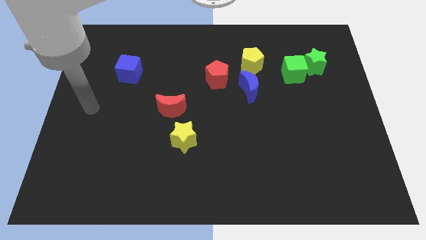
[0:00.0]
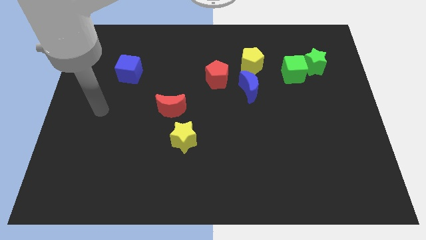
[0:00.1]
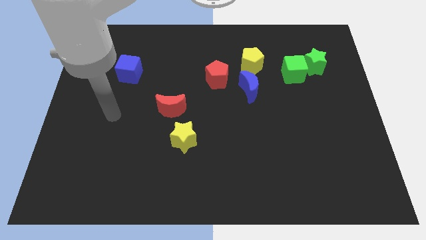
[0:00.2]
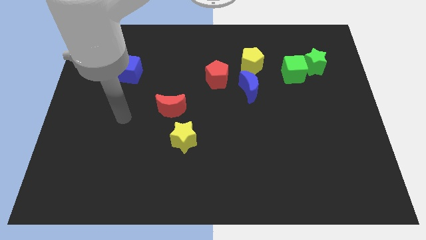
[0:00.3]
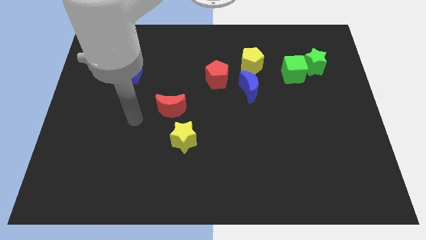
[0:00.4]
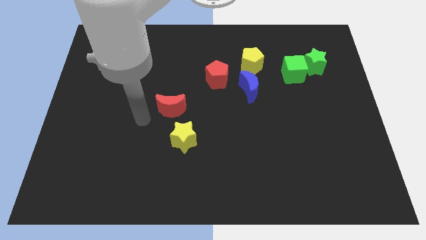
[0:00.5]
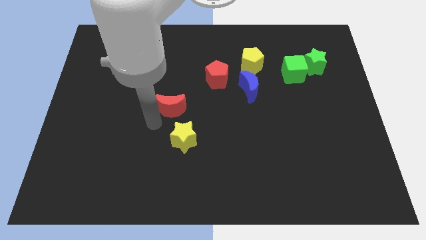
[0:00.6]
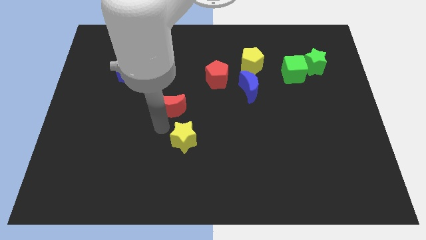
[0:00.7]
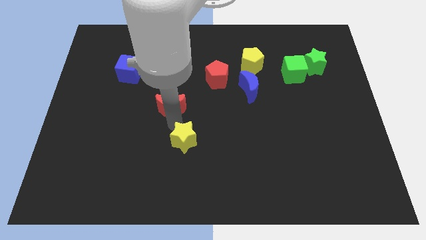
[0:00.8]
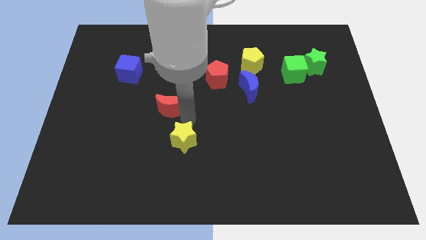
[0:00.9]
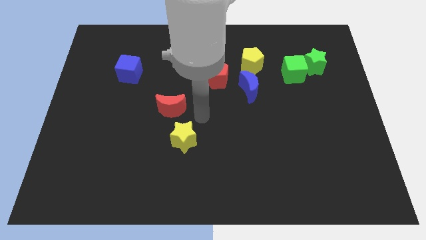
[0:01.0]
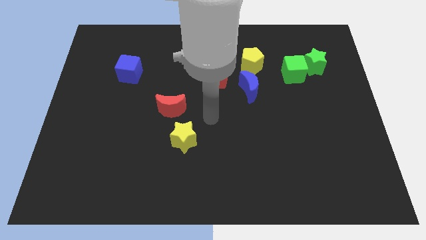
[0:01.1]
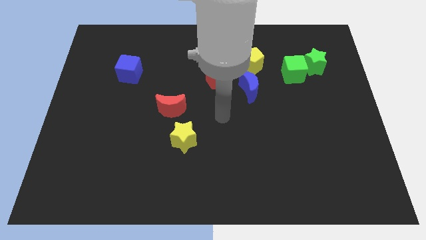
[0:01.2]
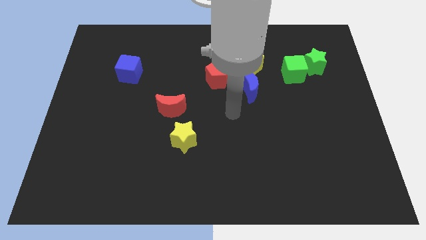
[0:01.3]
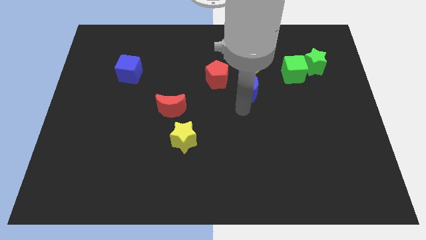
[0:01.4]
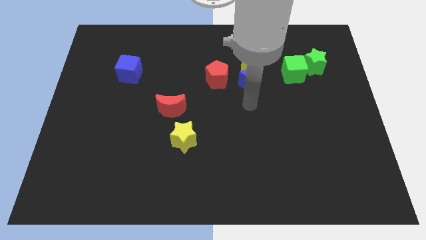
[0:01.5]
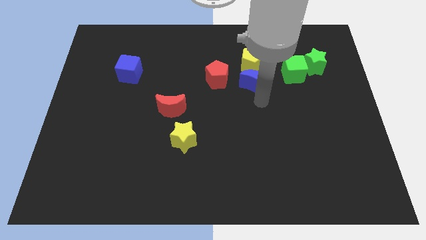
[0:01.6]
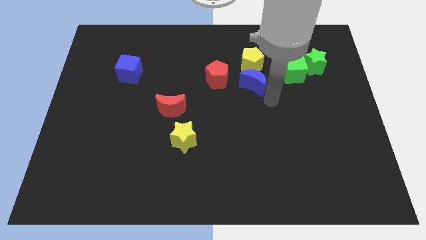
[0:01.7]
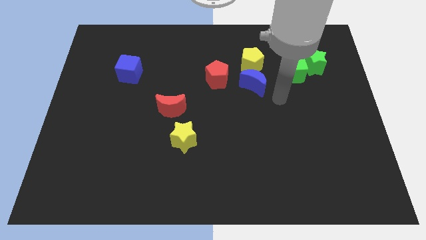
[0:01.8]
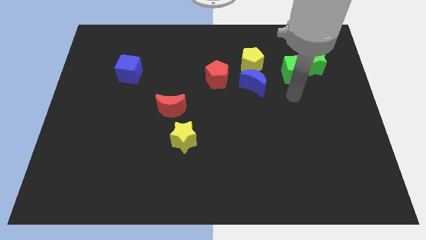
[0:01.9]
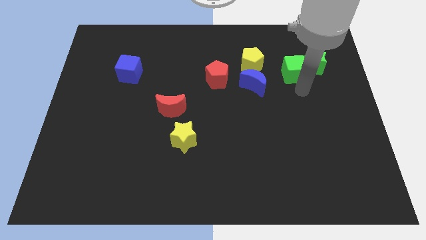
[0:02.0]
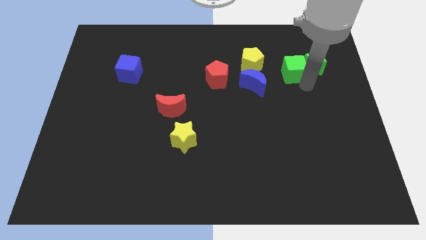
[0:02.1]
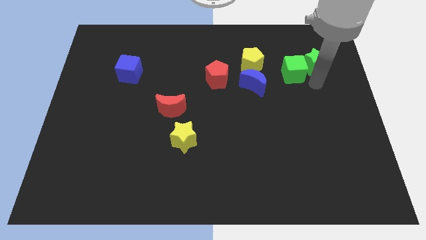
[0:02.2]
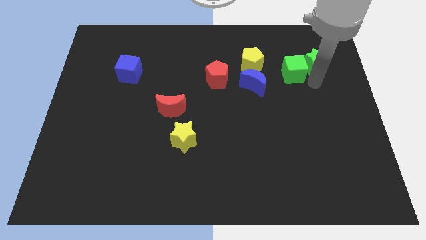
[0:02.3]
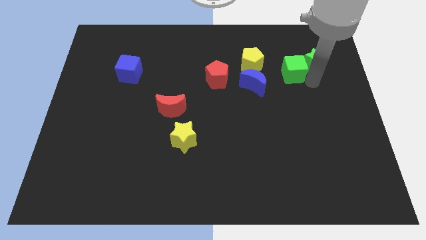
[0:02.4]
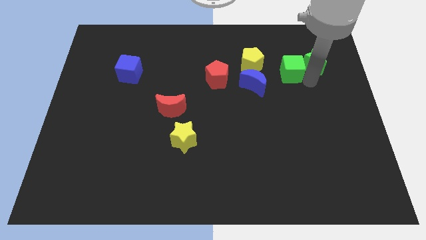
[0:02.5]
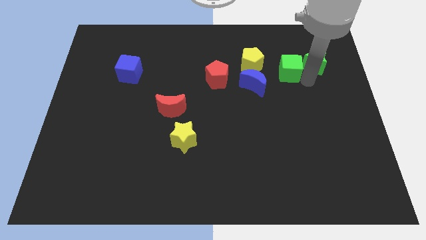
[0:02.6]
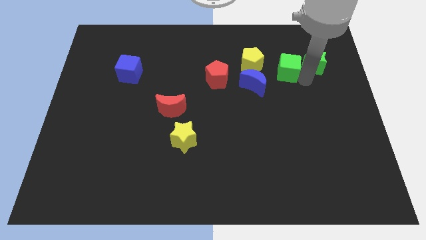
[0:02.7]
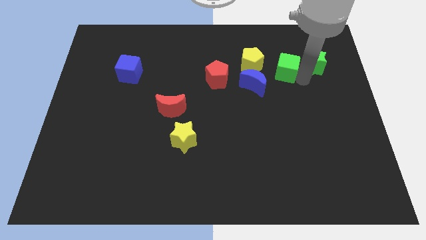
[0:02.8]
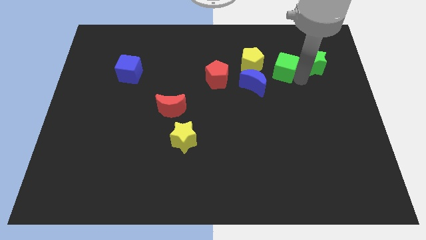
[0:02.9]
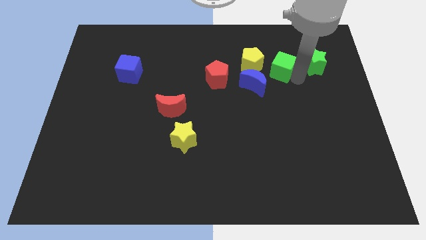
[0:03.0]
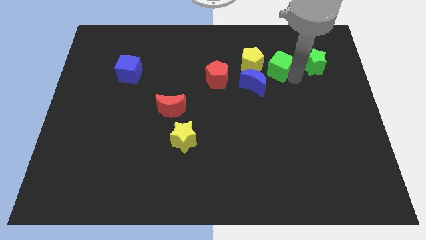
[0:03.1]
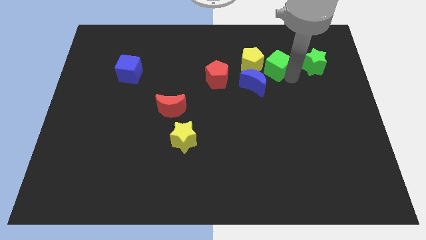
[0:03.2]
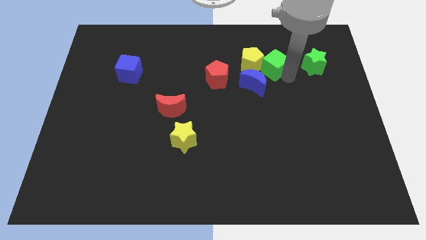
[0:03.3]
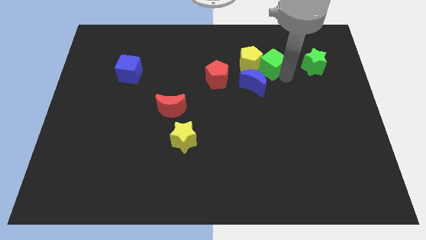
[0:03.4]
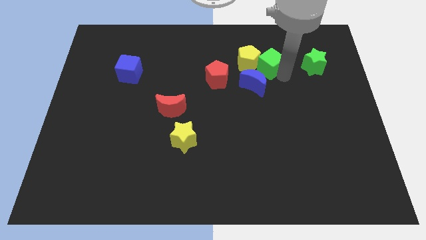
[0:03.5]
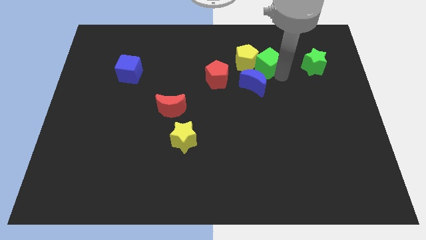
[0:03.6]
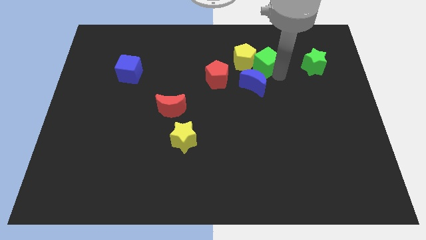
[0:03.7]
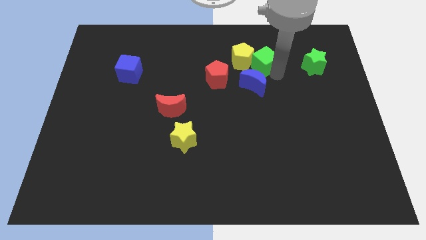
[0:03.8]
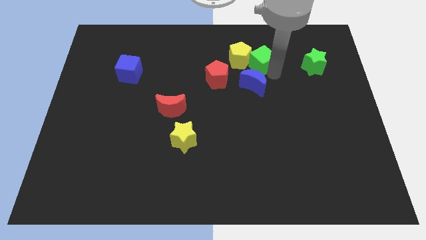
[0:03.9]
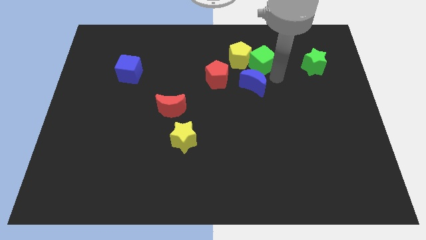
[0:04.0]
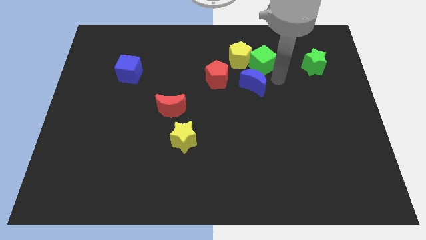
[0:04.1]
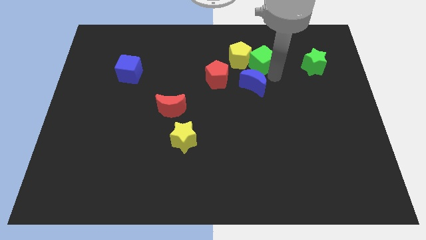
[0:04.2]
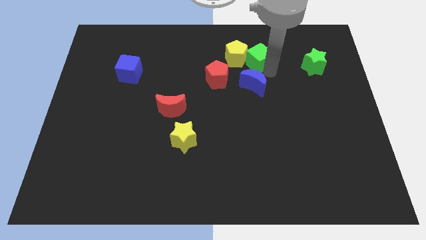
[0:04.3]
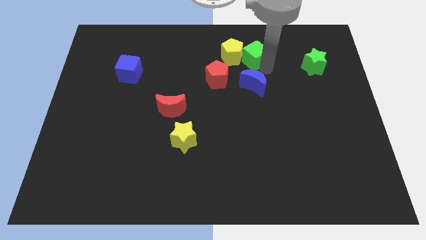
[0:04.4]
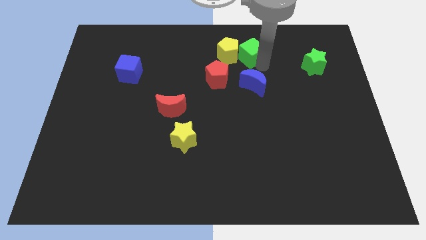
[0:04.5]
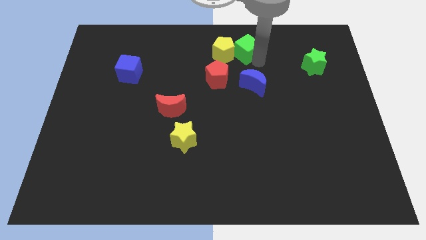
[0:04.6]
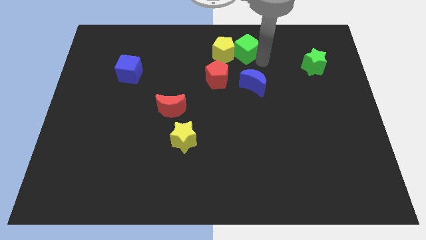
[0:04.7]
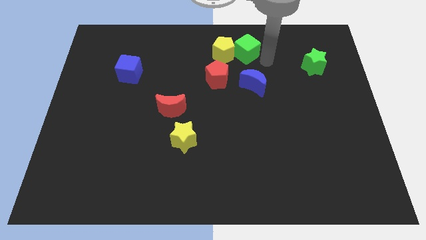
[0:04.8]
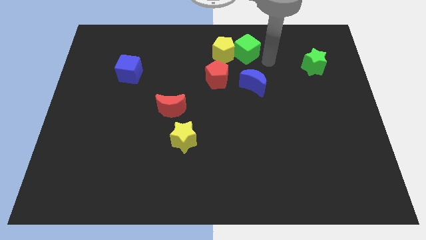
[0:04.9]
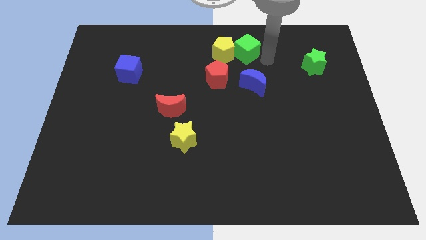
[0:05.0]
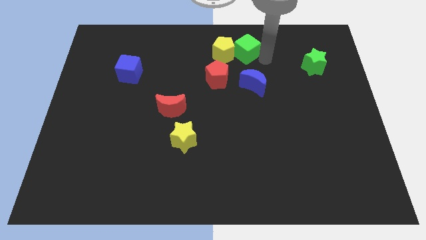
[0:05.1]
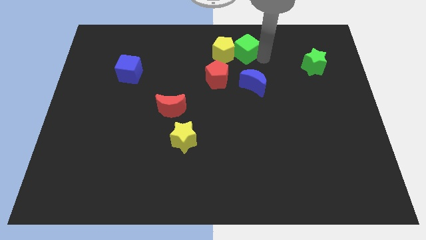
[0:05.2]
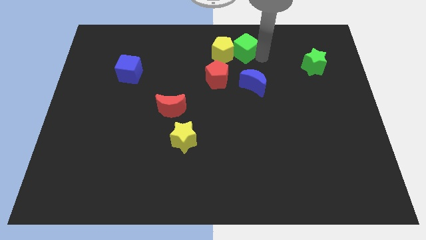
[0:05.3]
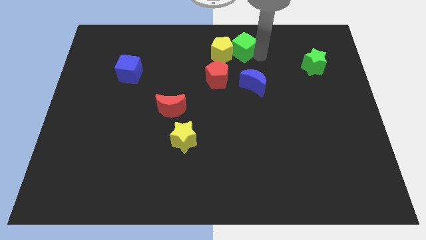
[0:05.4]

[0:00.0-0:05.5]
slide the green cube to the top side

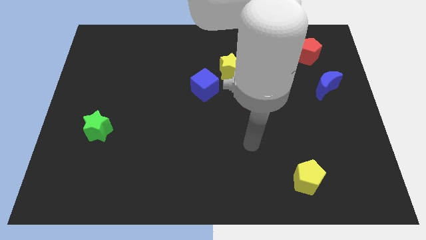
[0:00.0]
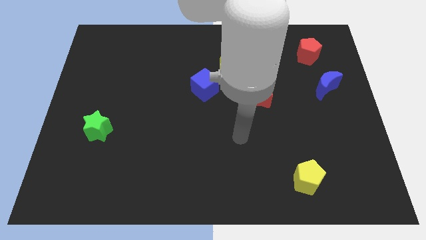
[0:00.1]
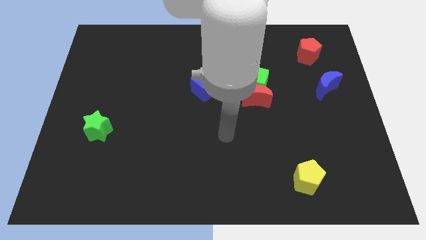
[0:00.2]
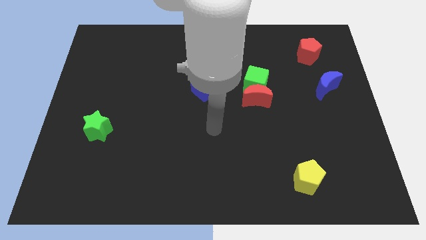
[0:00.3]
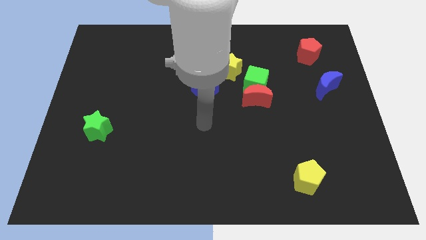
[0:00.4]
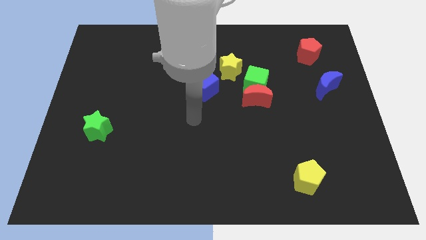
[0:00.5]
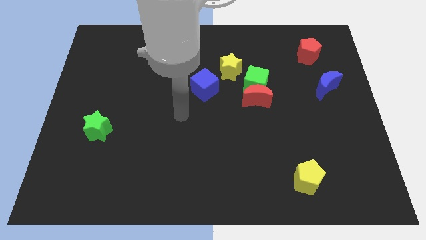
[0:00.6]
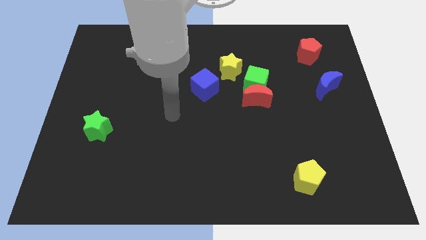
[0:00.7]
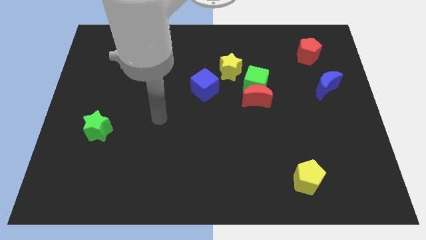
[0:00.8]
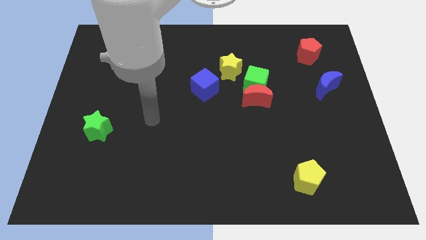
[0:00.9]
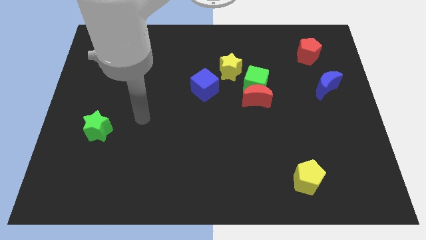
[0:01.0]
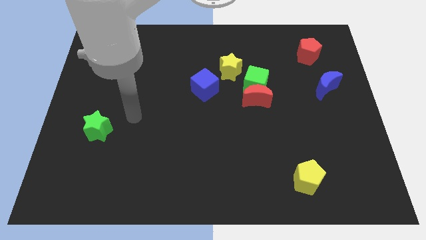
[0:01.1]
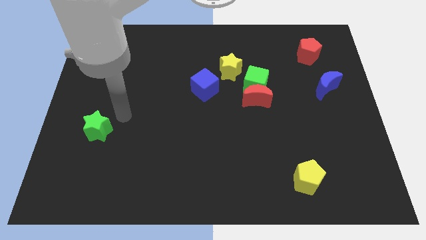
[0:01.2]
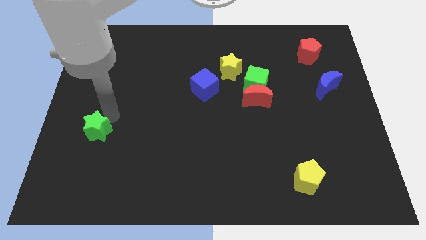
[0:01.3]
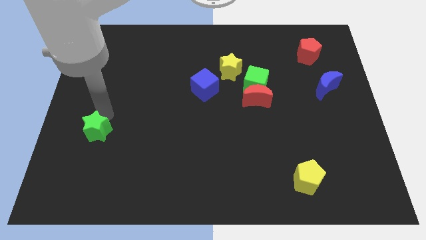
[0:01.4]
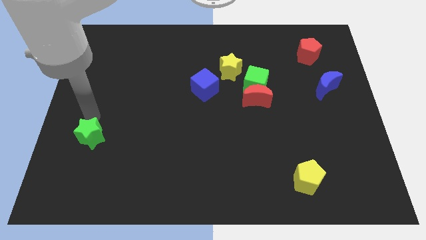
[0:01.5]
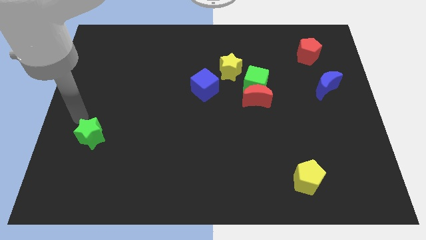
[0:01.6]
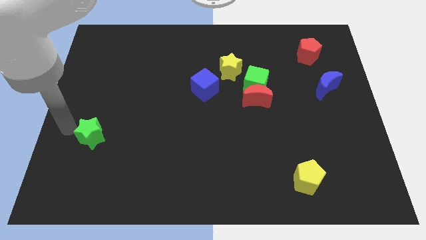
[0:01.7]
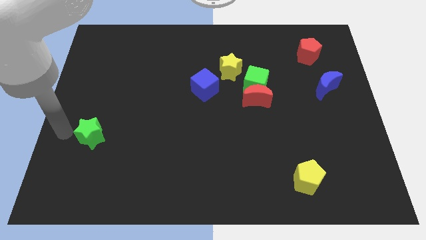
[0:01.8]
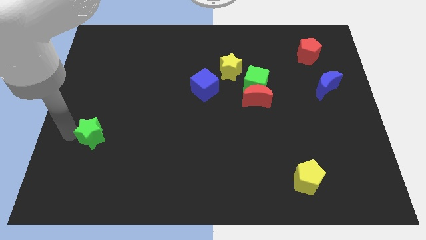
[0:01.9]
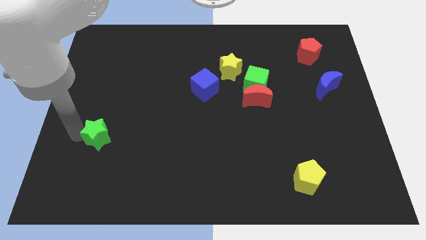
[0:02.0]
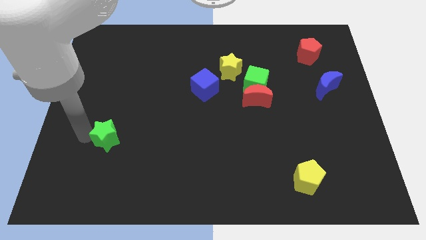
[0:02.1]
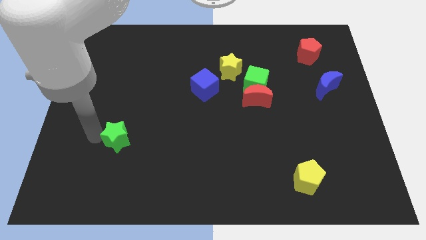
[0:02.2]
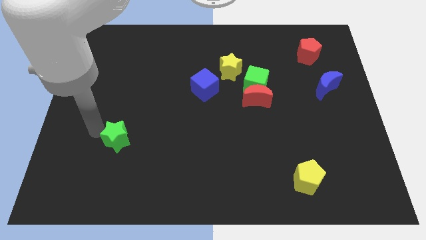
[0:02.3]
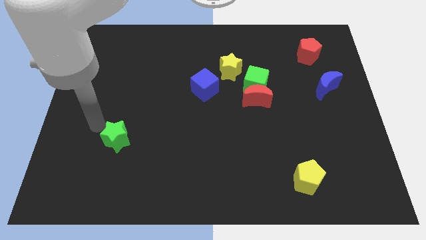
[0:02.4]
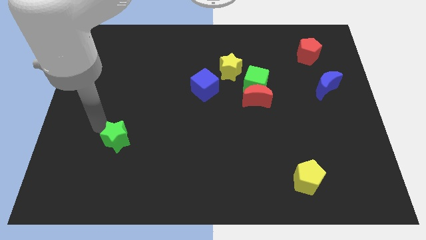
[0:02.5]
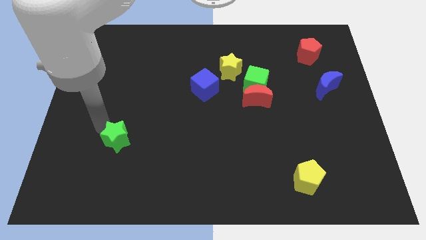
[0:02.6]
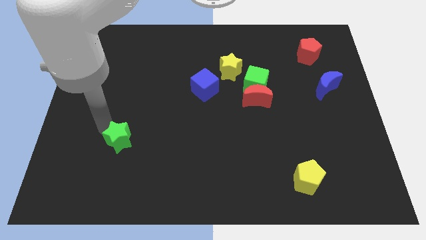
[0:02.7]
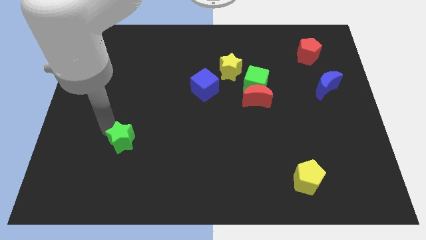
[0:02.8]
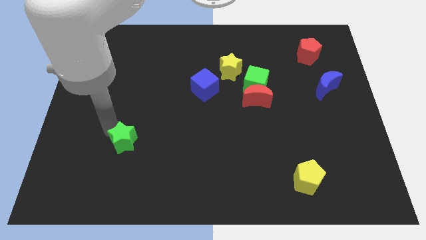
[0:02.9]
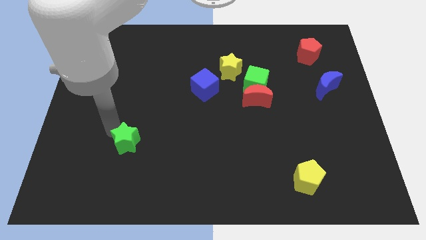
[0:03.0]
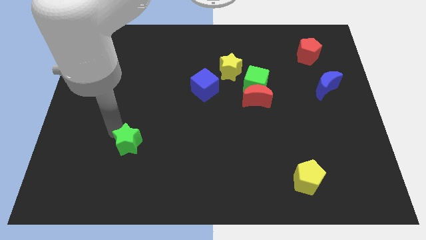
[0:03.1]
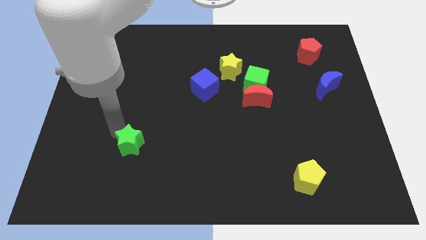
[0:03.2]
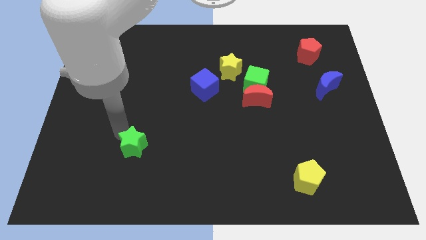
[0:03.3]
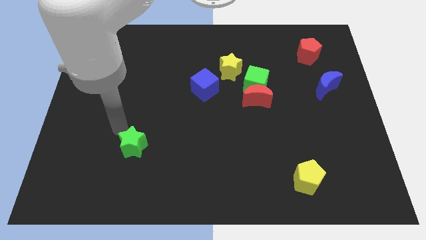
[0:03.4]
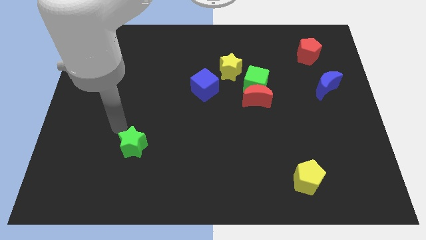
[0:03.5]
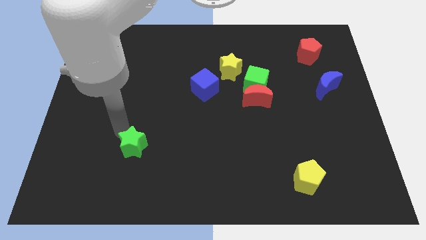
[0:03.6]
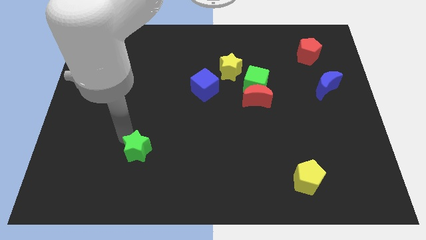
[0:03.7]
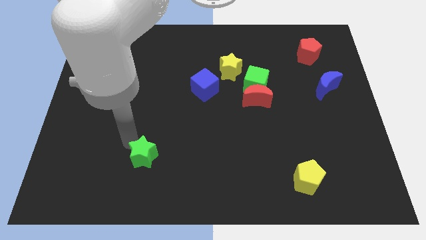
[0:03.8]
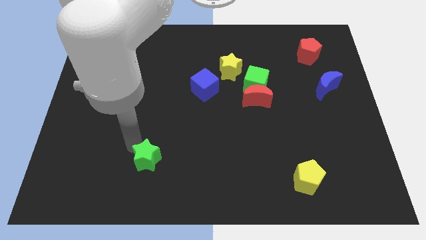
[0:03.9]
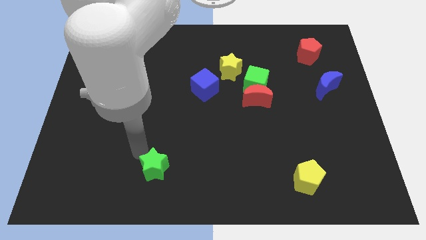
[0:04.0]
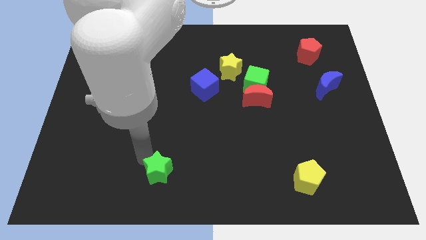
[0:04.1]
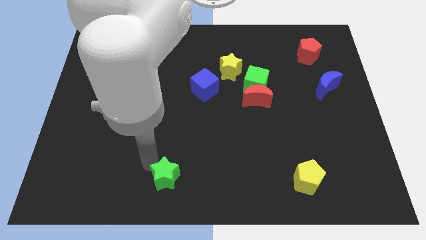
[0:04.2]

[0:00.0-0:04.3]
slide the green star to the bottom side
